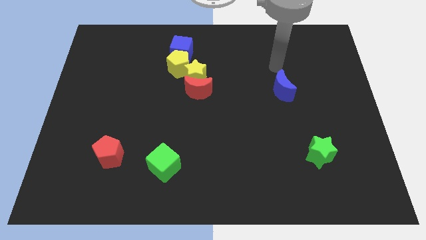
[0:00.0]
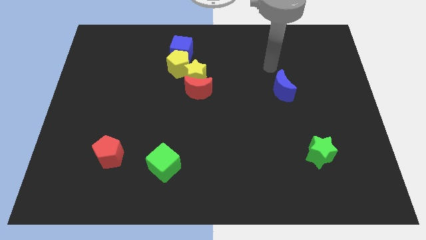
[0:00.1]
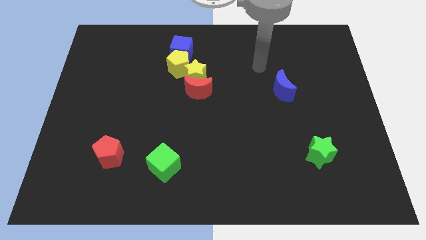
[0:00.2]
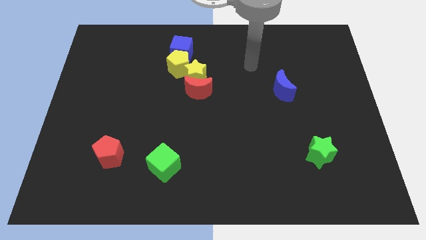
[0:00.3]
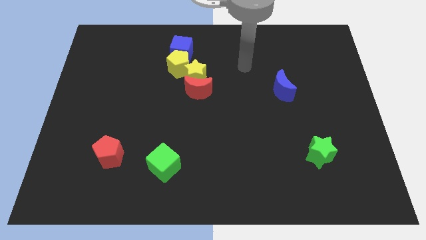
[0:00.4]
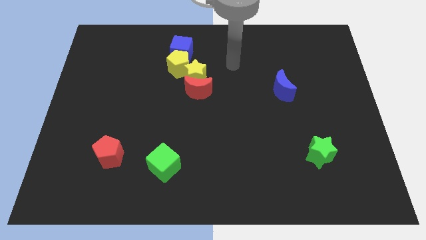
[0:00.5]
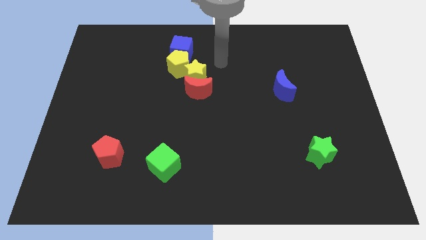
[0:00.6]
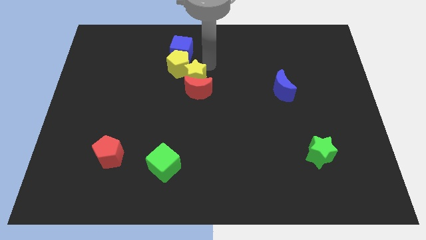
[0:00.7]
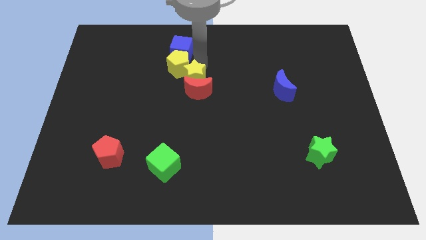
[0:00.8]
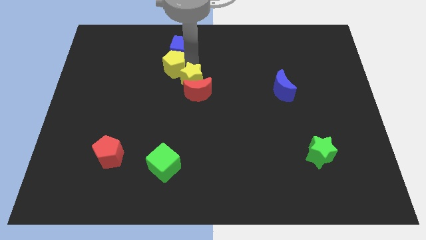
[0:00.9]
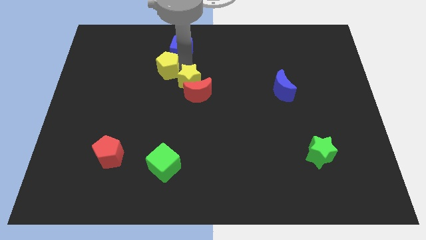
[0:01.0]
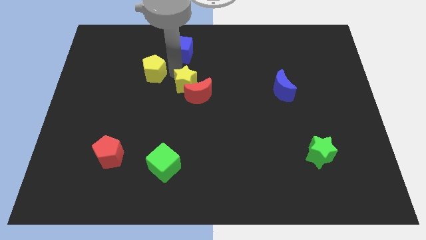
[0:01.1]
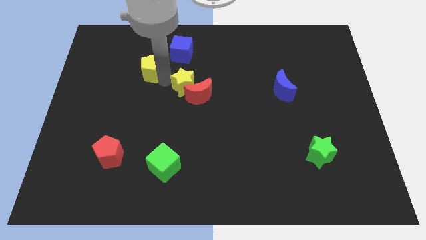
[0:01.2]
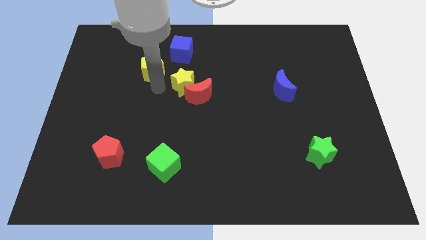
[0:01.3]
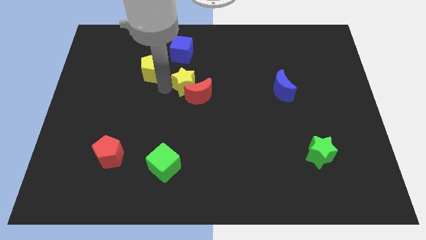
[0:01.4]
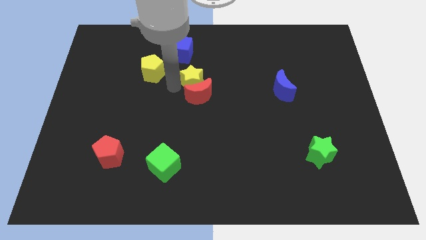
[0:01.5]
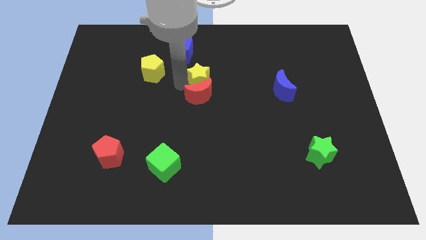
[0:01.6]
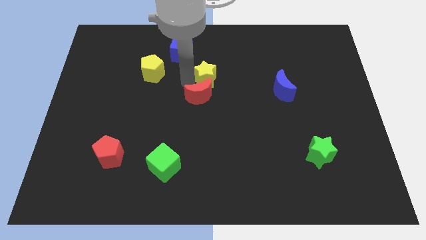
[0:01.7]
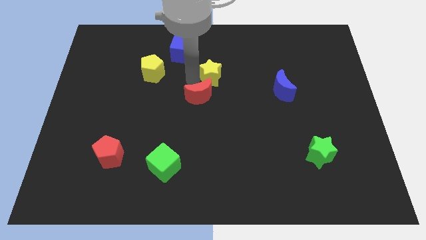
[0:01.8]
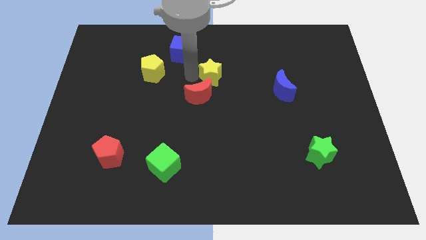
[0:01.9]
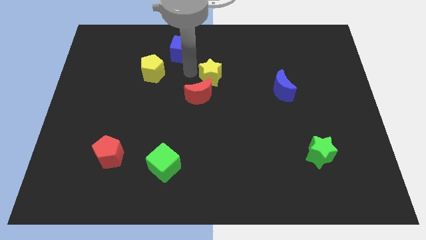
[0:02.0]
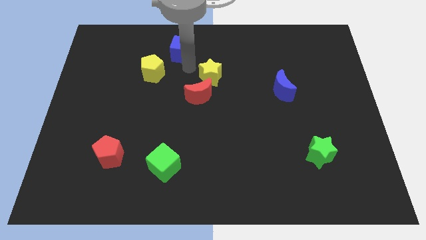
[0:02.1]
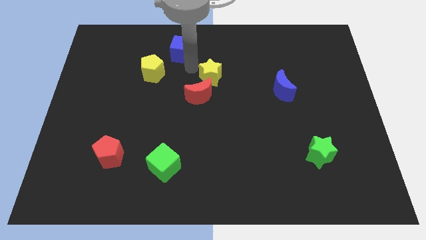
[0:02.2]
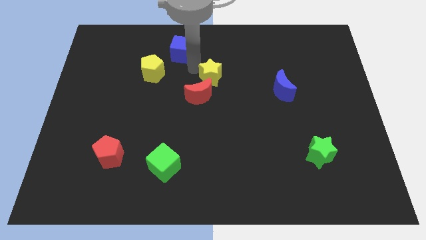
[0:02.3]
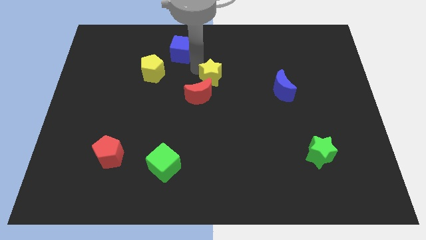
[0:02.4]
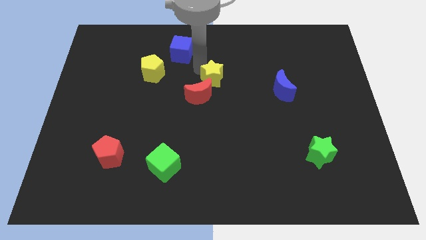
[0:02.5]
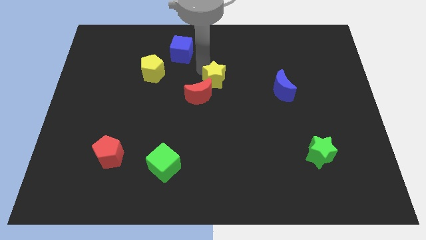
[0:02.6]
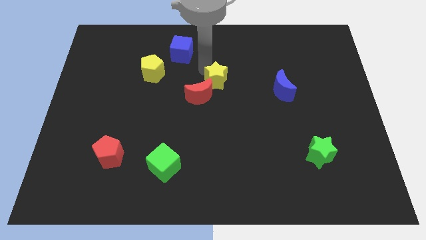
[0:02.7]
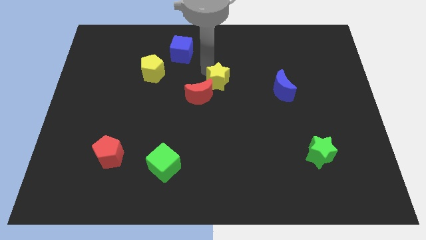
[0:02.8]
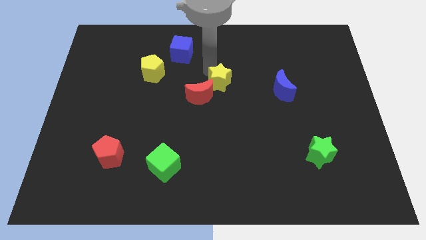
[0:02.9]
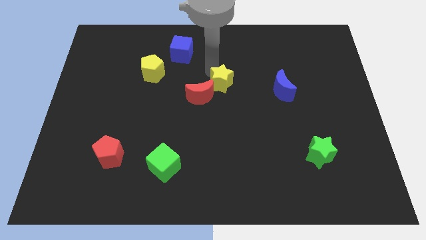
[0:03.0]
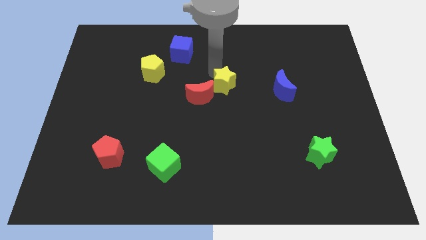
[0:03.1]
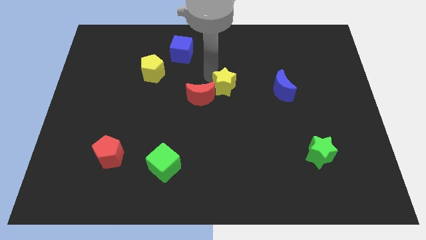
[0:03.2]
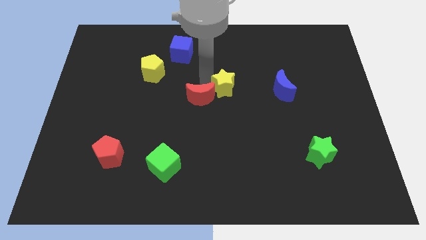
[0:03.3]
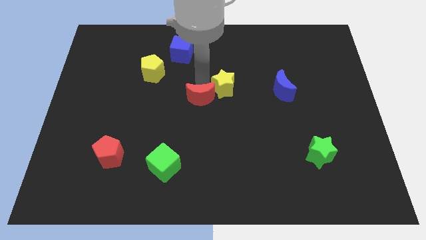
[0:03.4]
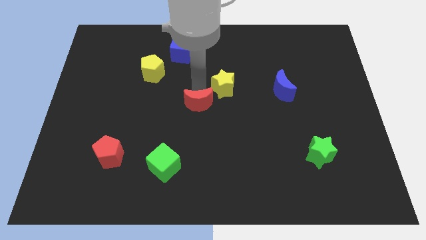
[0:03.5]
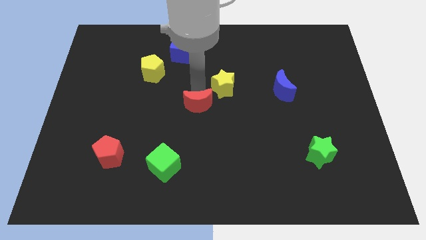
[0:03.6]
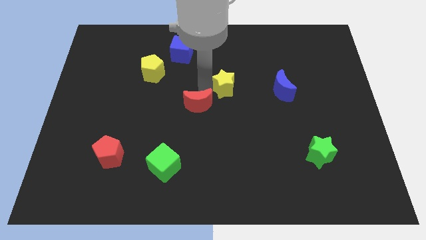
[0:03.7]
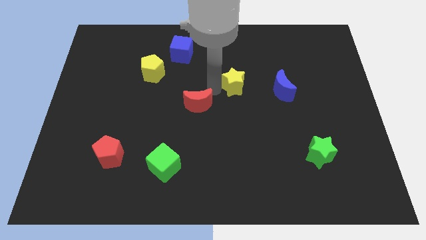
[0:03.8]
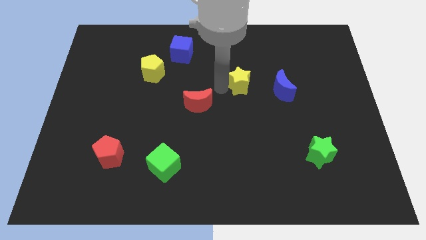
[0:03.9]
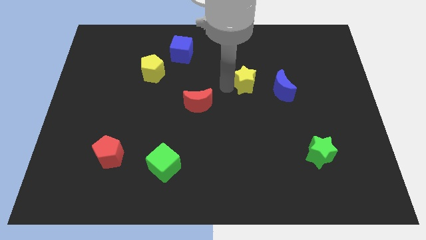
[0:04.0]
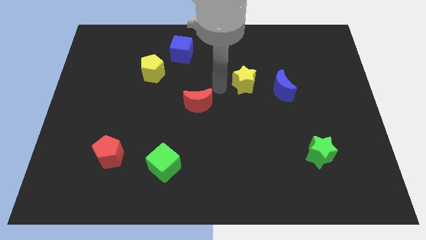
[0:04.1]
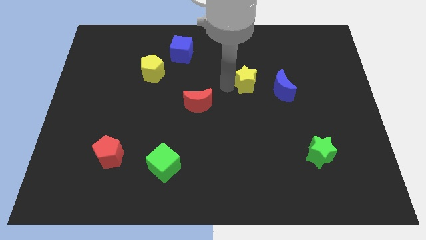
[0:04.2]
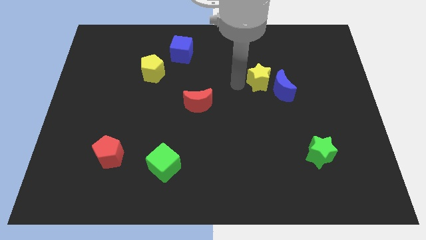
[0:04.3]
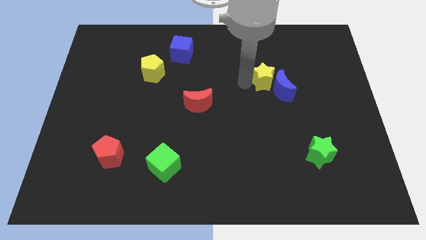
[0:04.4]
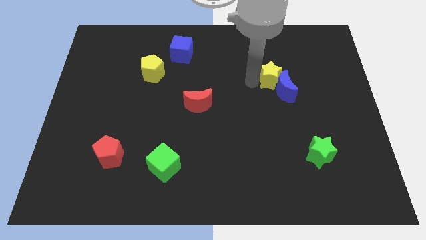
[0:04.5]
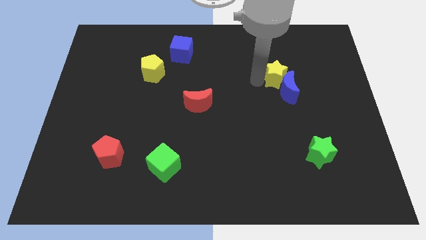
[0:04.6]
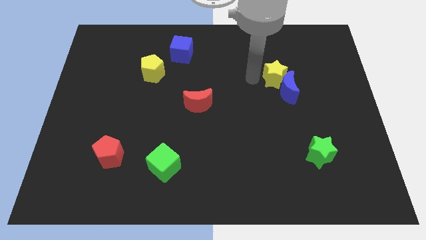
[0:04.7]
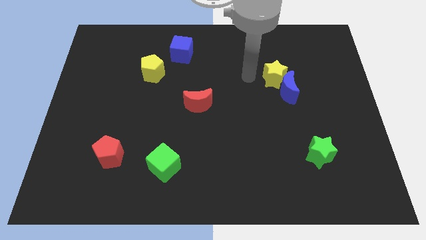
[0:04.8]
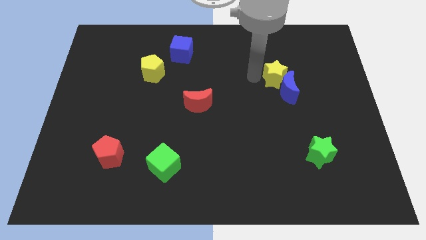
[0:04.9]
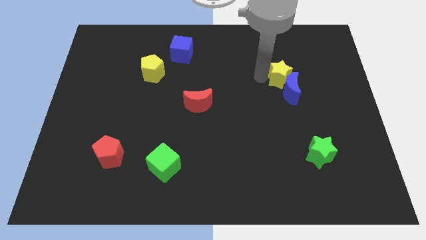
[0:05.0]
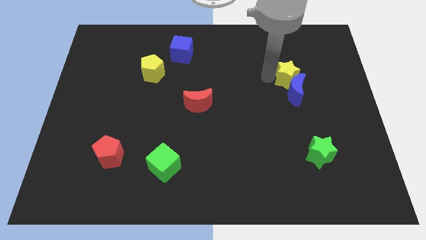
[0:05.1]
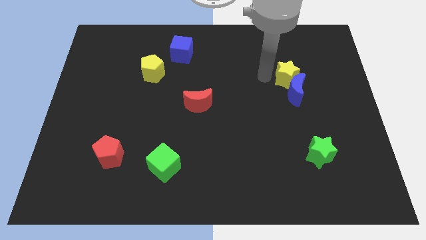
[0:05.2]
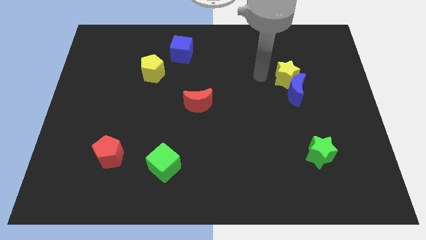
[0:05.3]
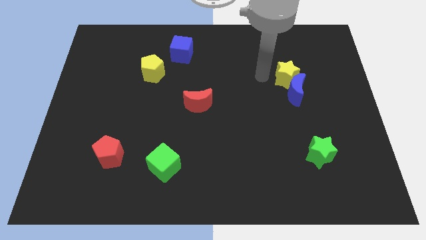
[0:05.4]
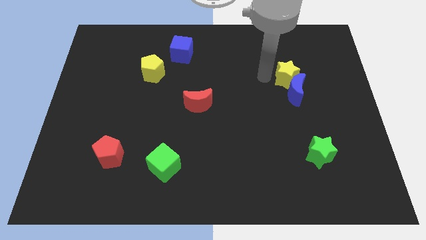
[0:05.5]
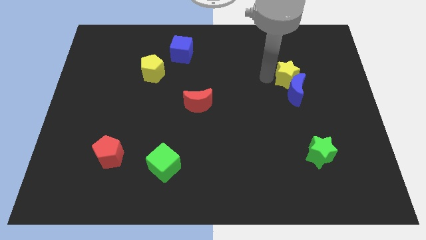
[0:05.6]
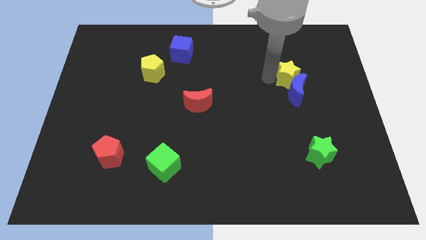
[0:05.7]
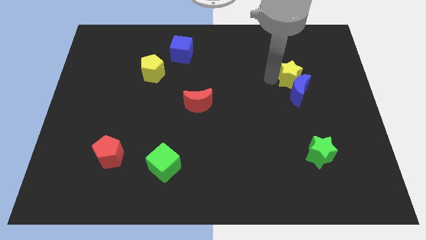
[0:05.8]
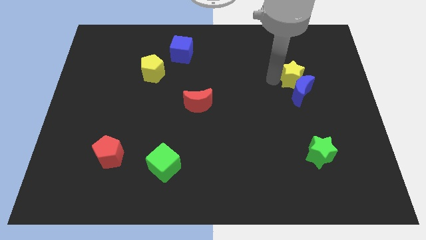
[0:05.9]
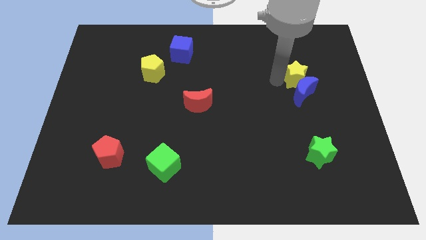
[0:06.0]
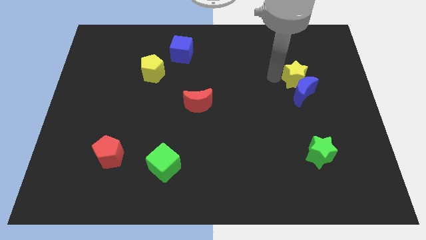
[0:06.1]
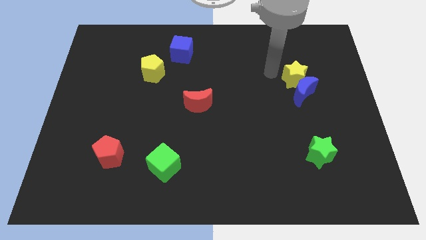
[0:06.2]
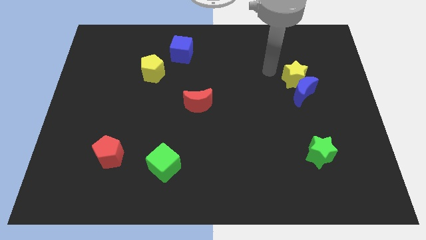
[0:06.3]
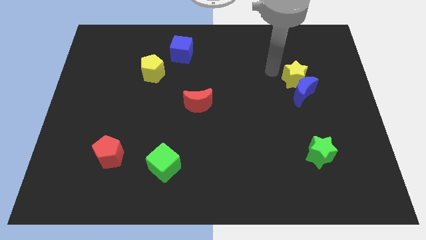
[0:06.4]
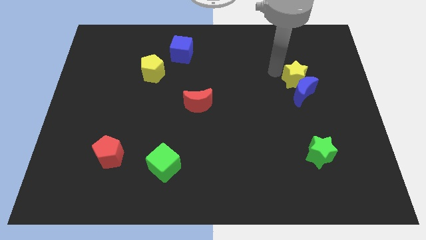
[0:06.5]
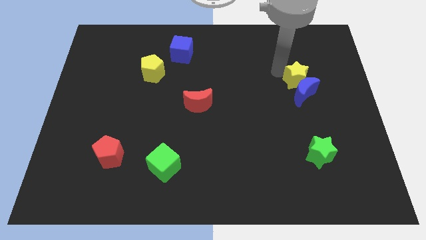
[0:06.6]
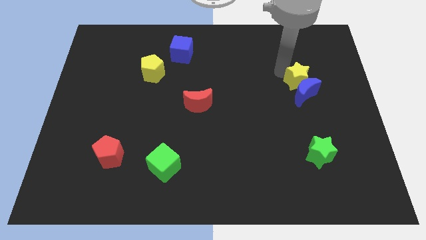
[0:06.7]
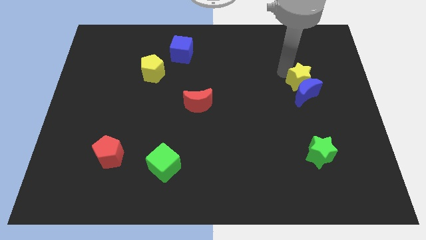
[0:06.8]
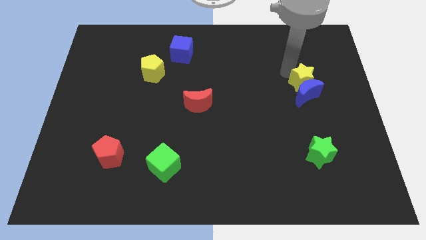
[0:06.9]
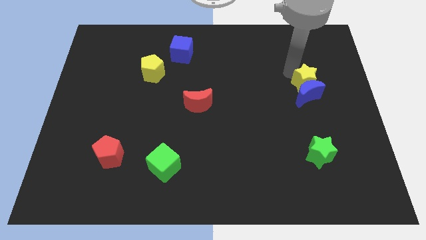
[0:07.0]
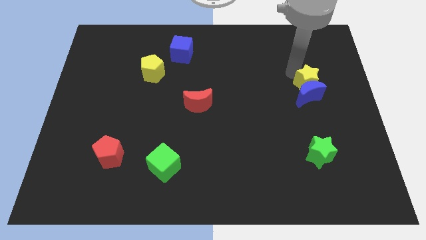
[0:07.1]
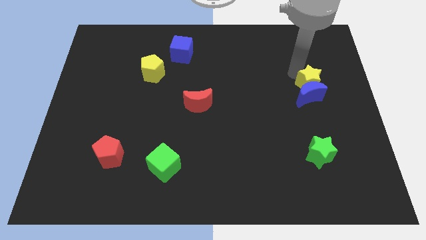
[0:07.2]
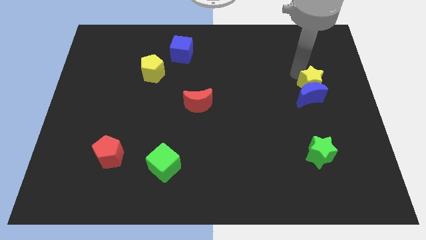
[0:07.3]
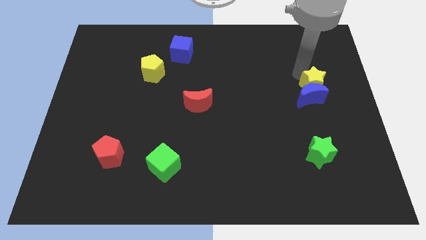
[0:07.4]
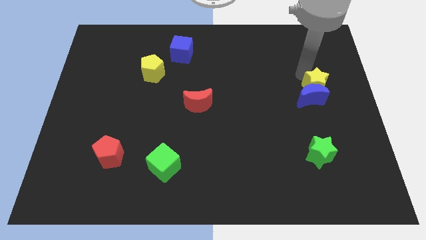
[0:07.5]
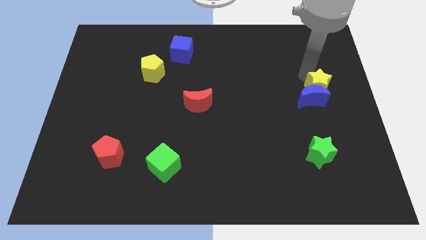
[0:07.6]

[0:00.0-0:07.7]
move the yellow star to the right side
